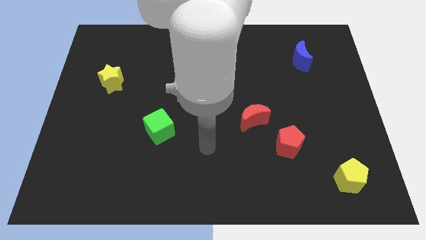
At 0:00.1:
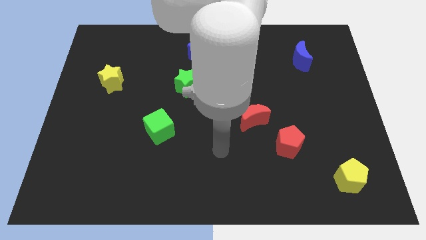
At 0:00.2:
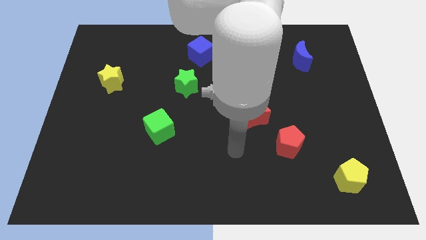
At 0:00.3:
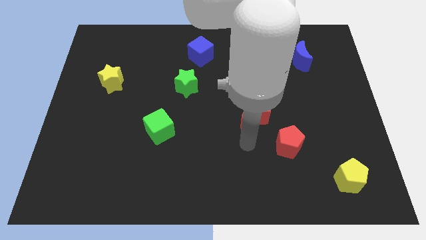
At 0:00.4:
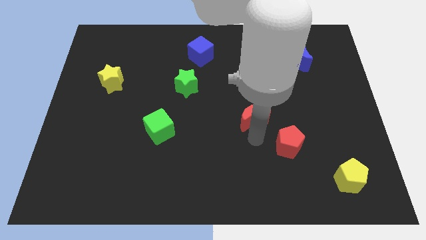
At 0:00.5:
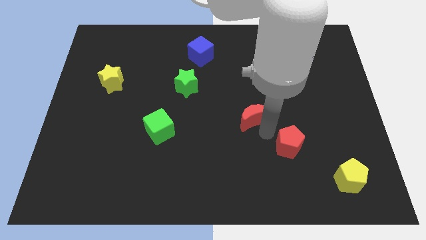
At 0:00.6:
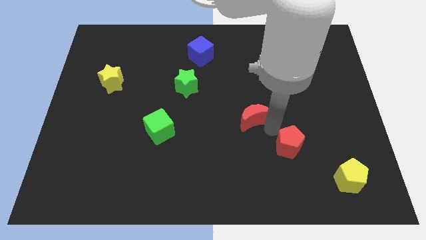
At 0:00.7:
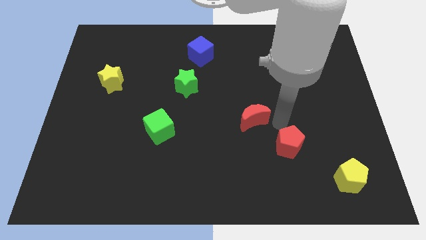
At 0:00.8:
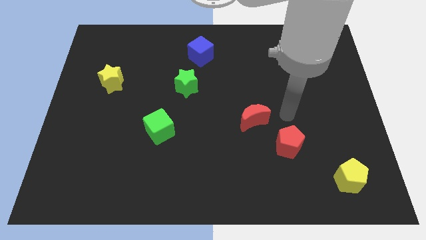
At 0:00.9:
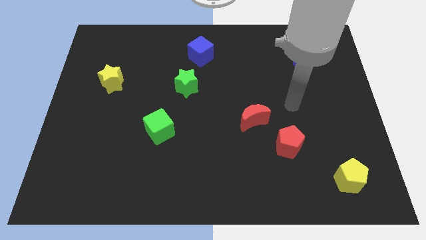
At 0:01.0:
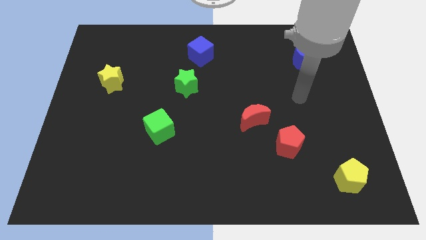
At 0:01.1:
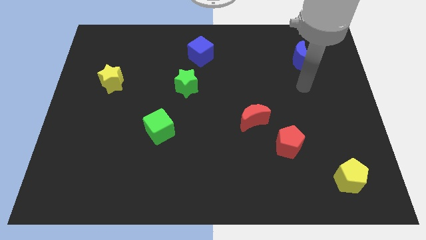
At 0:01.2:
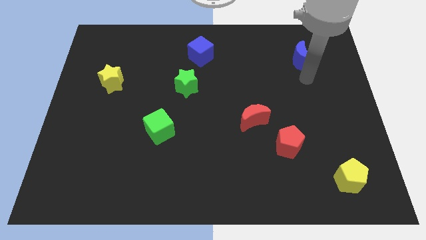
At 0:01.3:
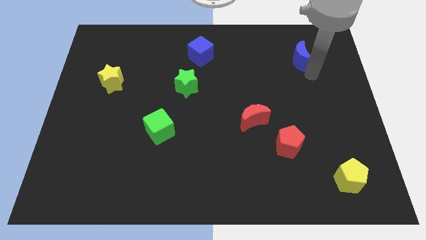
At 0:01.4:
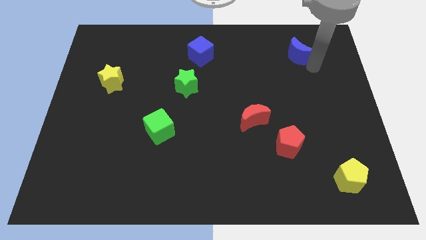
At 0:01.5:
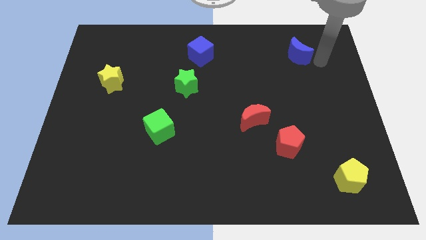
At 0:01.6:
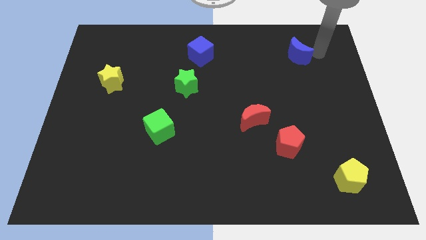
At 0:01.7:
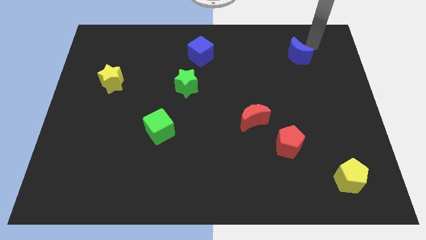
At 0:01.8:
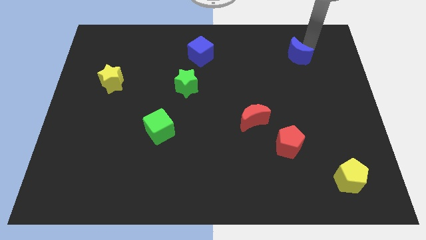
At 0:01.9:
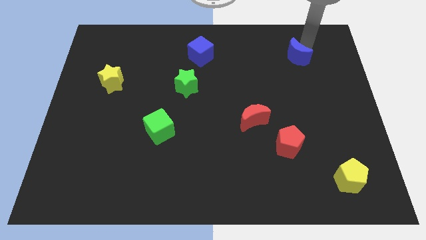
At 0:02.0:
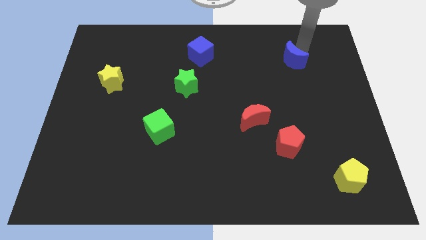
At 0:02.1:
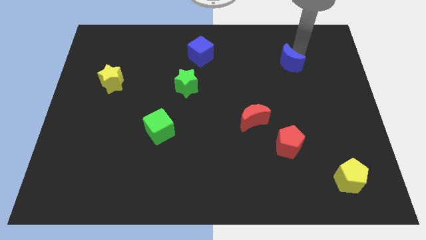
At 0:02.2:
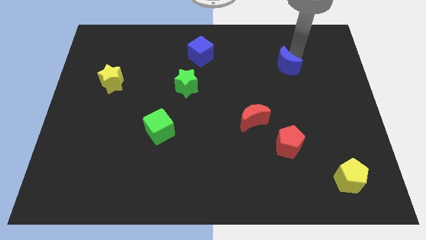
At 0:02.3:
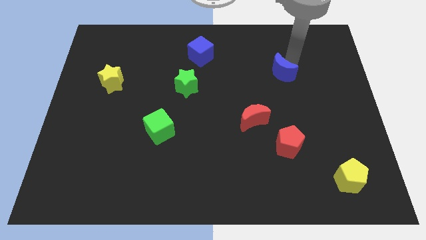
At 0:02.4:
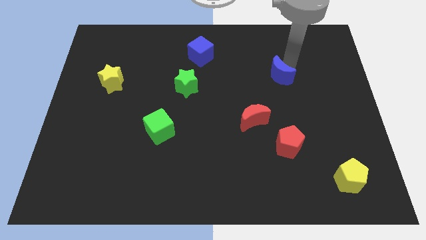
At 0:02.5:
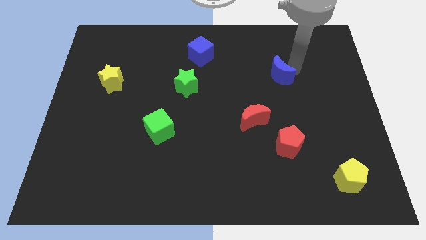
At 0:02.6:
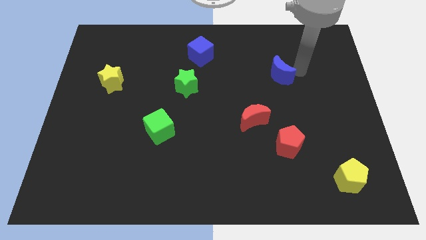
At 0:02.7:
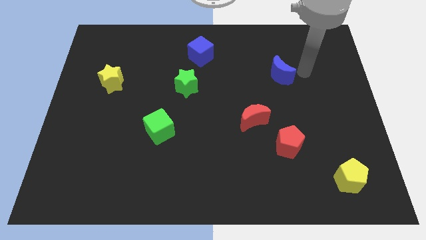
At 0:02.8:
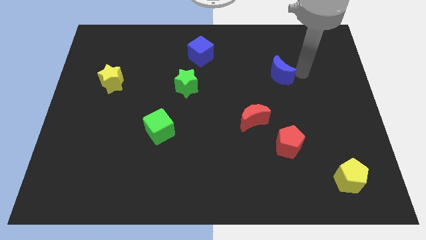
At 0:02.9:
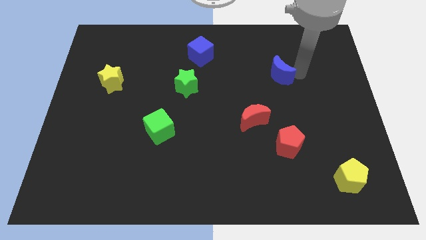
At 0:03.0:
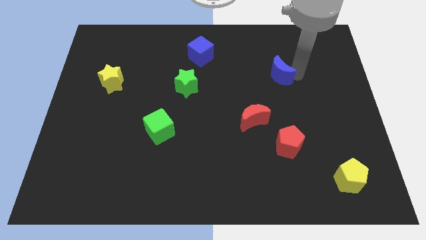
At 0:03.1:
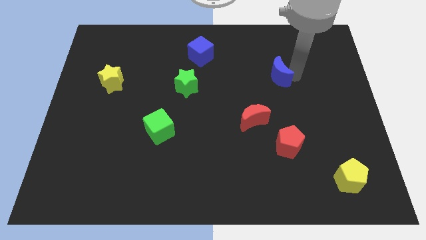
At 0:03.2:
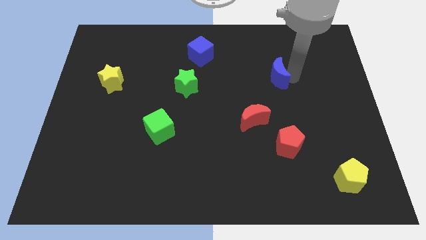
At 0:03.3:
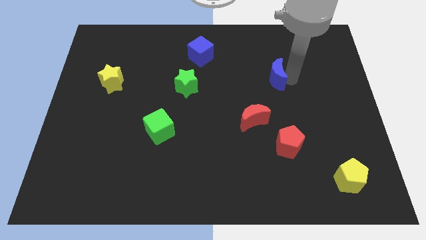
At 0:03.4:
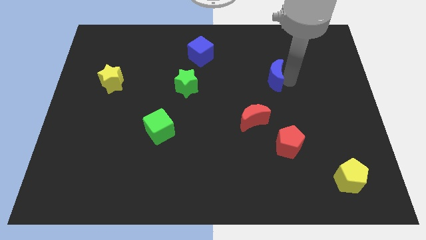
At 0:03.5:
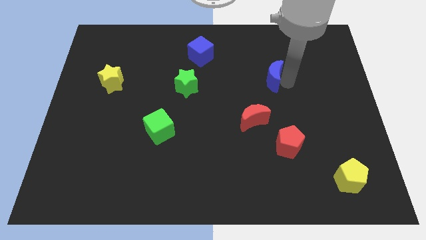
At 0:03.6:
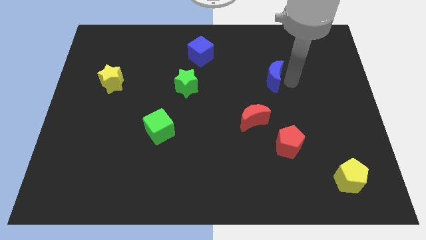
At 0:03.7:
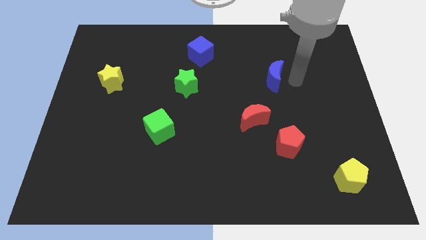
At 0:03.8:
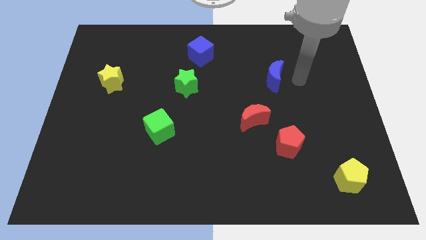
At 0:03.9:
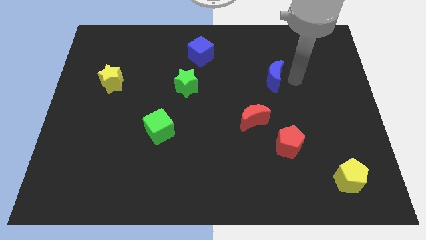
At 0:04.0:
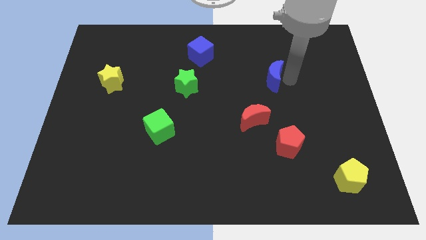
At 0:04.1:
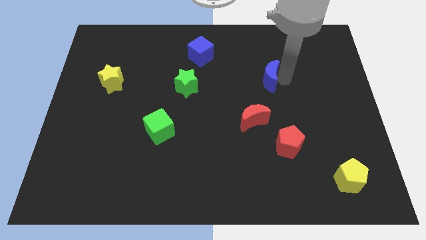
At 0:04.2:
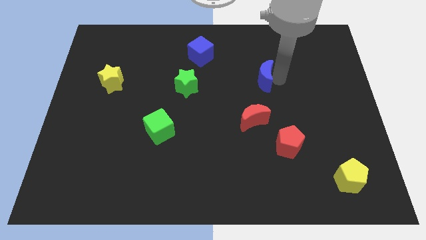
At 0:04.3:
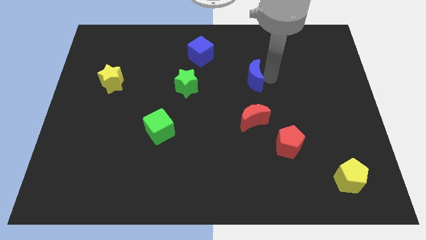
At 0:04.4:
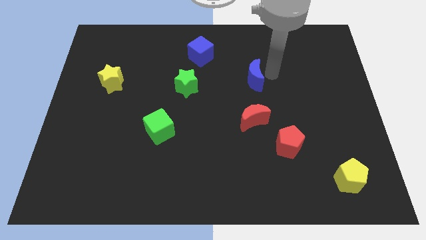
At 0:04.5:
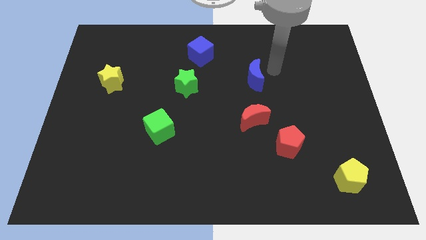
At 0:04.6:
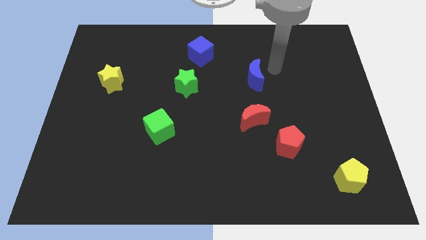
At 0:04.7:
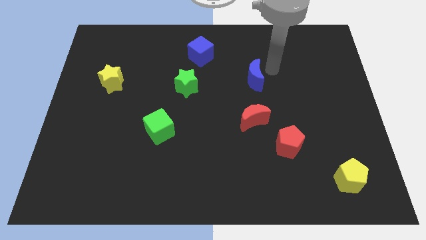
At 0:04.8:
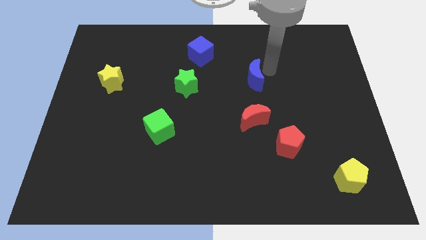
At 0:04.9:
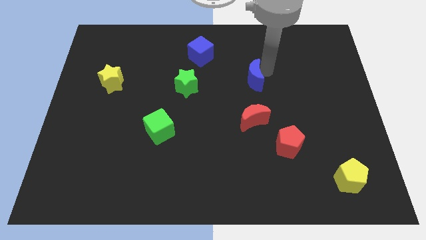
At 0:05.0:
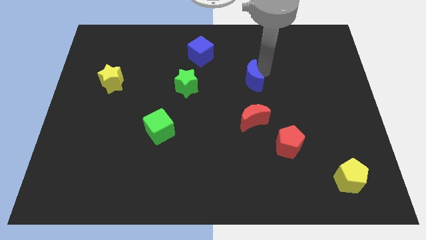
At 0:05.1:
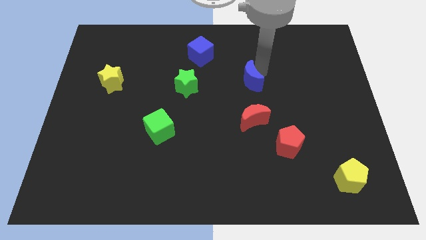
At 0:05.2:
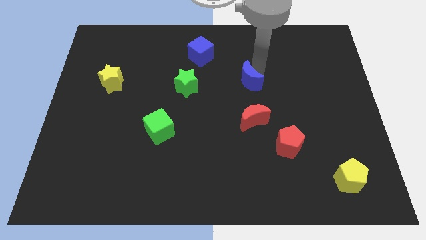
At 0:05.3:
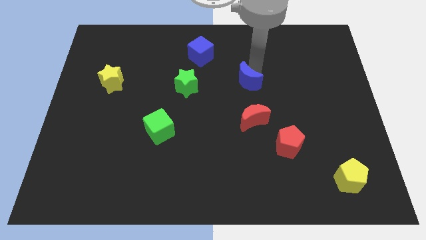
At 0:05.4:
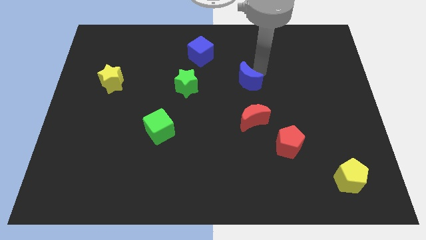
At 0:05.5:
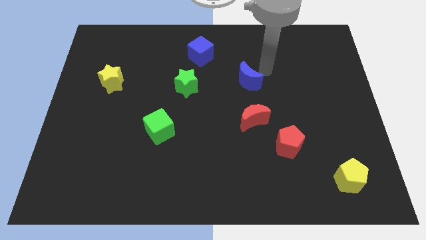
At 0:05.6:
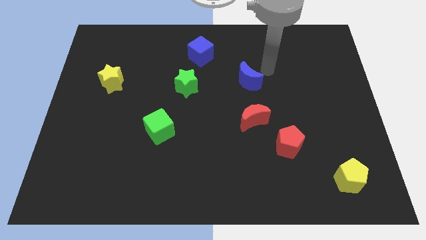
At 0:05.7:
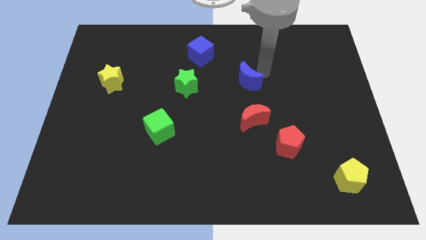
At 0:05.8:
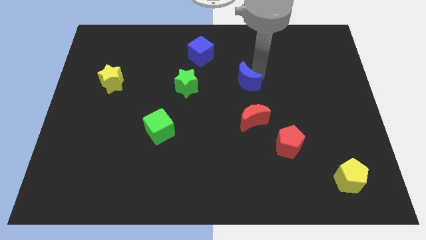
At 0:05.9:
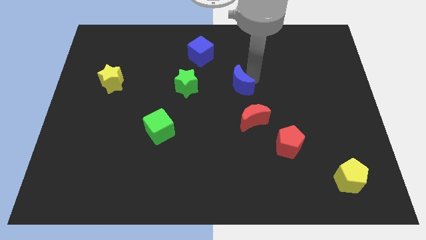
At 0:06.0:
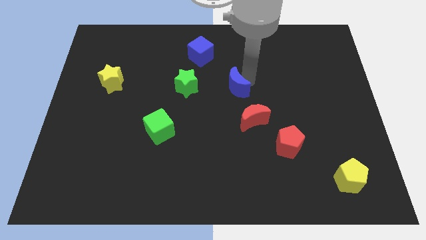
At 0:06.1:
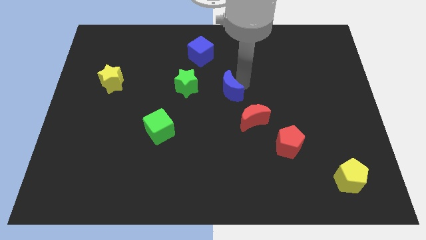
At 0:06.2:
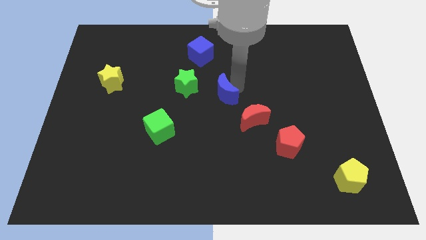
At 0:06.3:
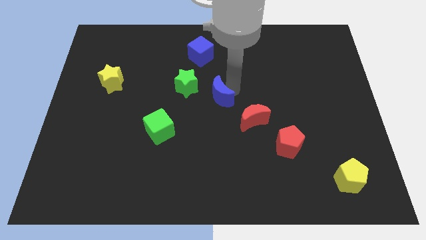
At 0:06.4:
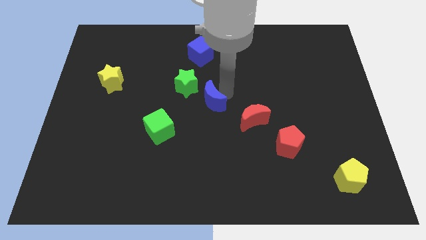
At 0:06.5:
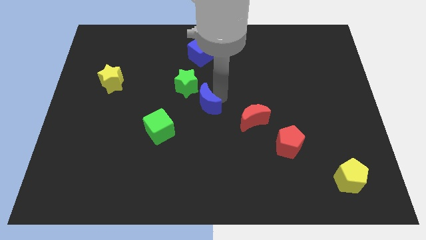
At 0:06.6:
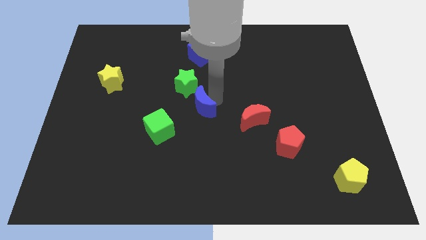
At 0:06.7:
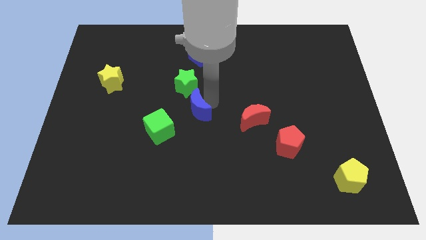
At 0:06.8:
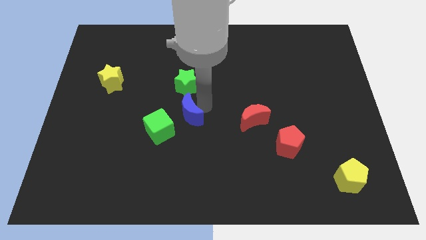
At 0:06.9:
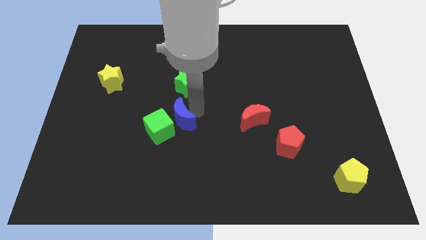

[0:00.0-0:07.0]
move the blue moon to the green cube

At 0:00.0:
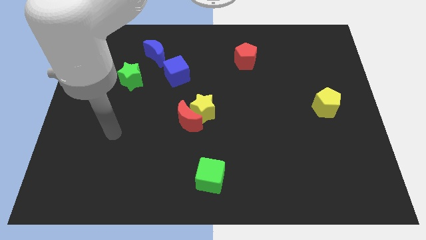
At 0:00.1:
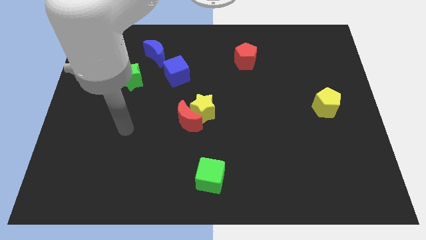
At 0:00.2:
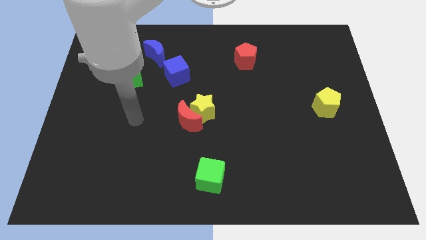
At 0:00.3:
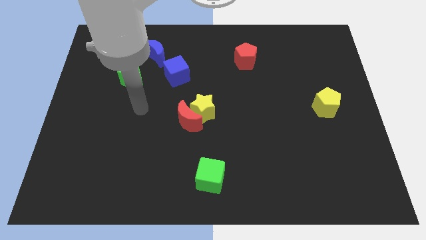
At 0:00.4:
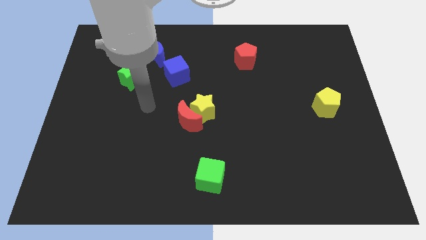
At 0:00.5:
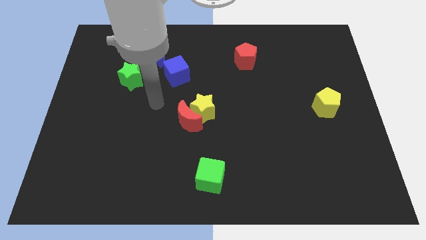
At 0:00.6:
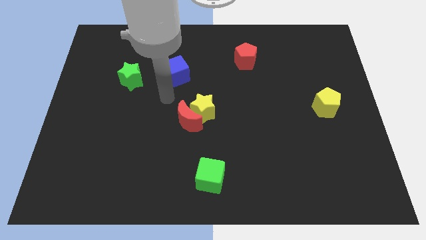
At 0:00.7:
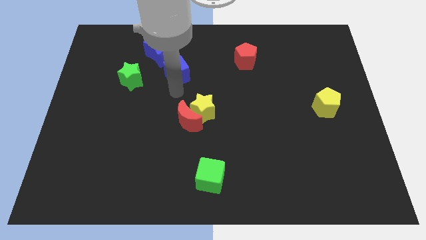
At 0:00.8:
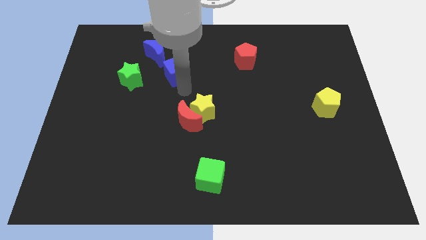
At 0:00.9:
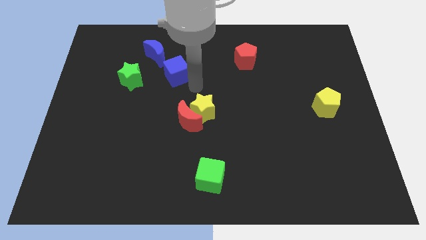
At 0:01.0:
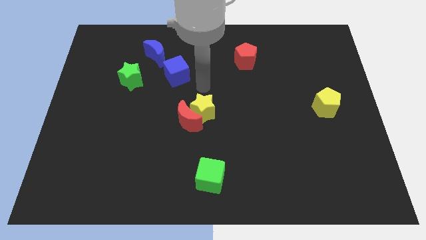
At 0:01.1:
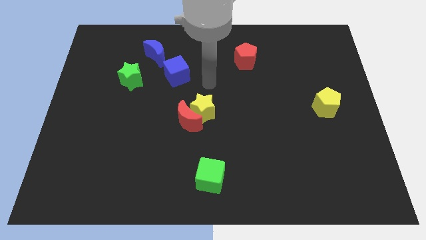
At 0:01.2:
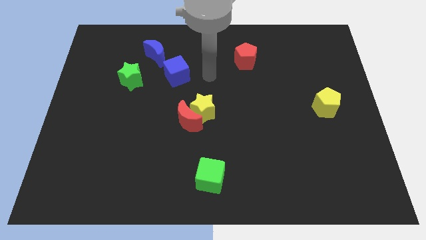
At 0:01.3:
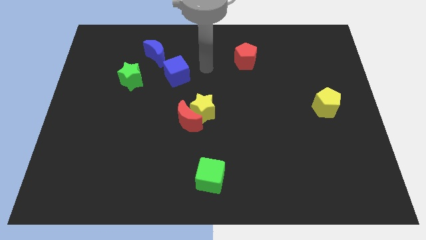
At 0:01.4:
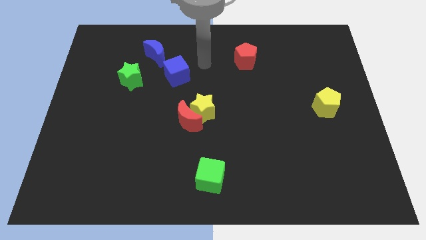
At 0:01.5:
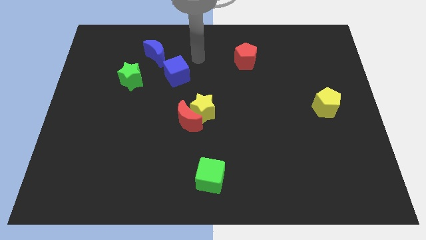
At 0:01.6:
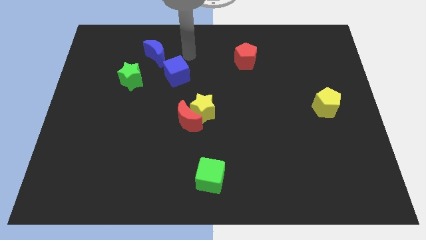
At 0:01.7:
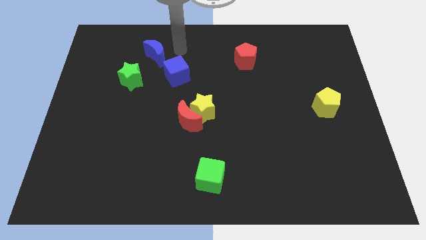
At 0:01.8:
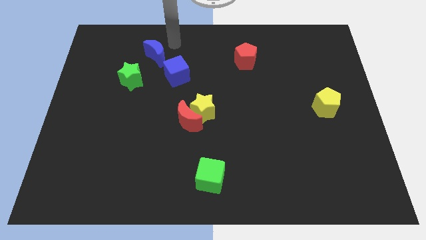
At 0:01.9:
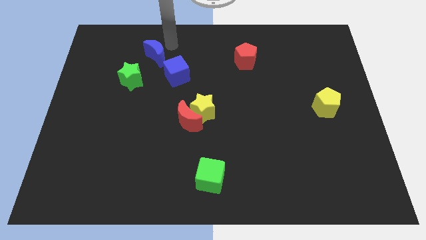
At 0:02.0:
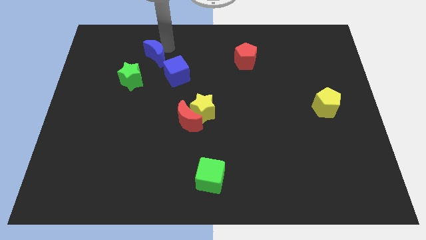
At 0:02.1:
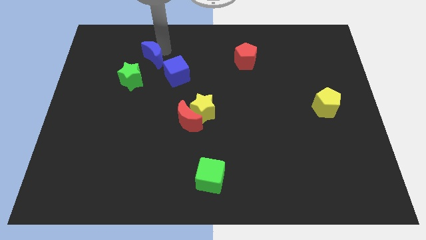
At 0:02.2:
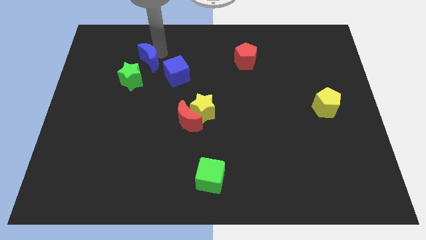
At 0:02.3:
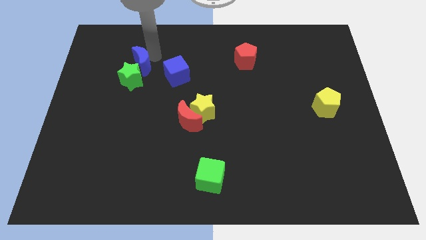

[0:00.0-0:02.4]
move the blue moon towards the green star
